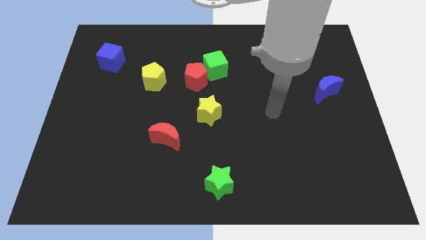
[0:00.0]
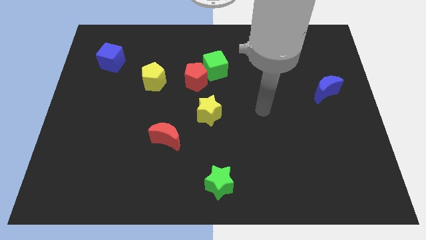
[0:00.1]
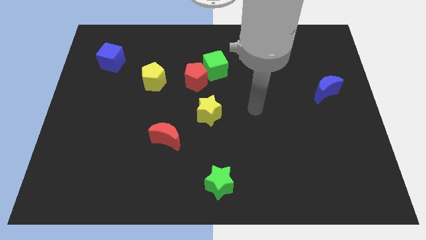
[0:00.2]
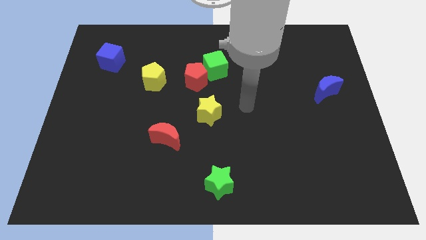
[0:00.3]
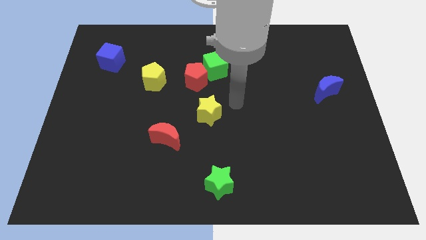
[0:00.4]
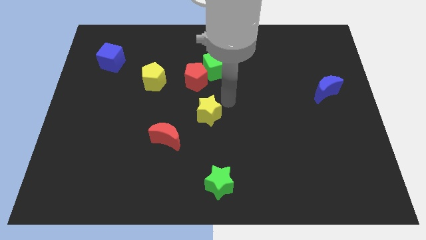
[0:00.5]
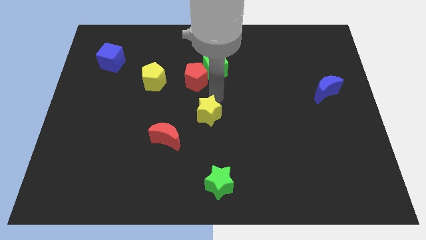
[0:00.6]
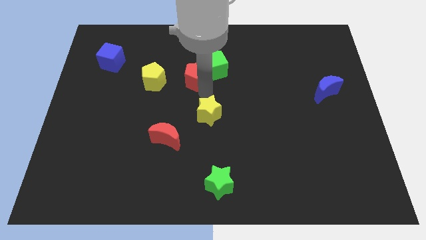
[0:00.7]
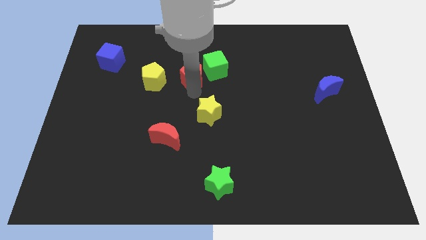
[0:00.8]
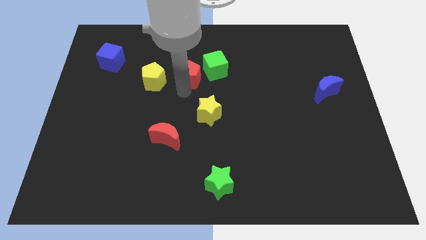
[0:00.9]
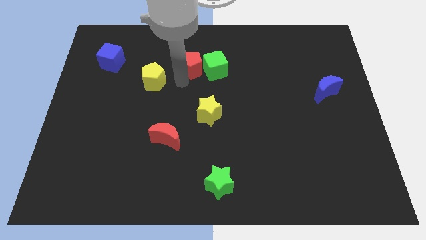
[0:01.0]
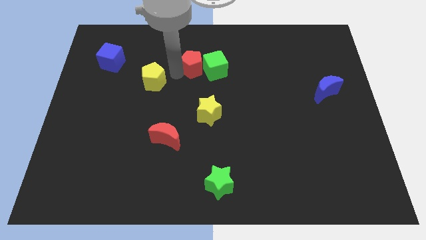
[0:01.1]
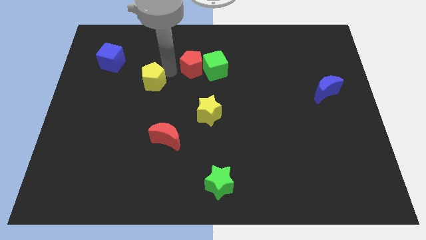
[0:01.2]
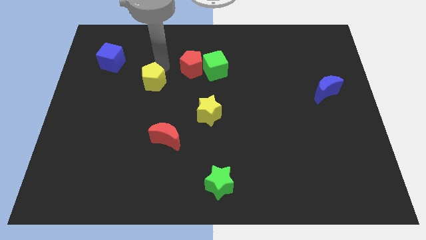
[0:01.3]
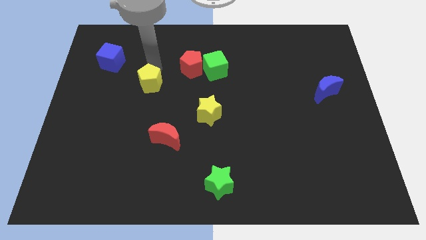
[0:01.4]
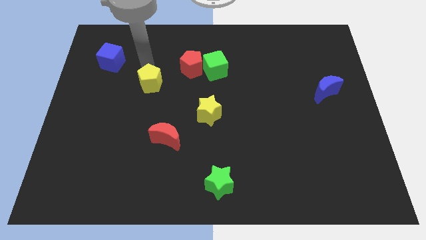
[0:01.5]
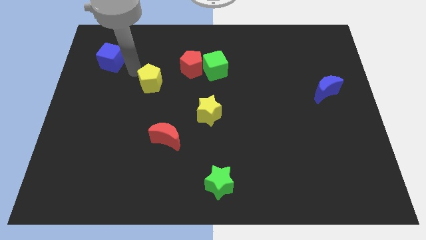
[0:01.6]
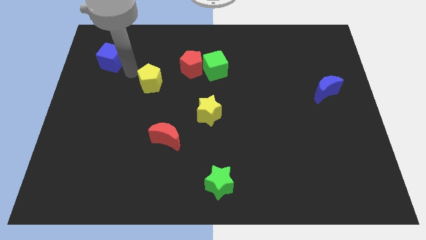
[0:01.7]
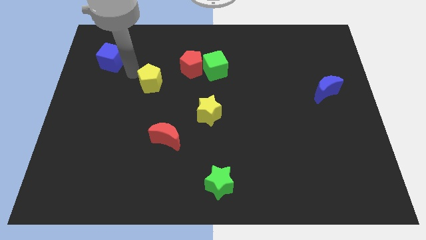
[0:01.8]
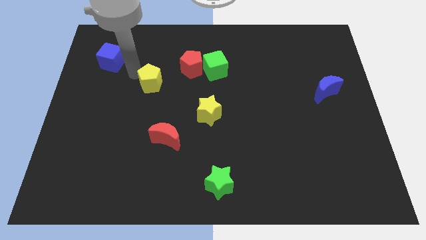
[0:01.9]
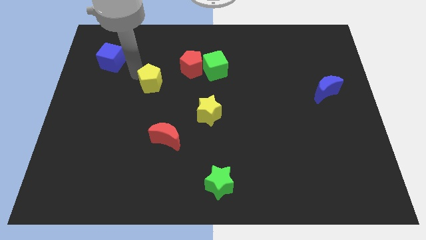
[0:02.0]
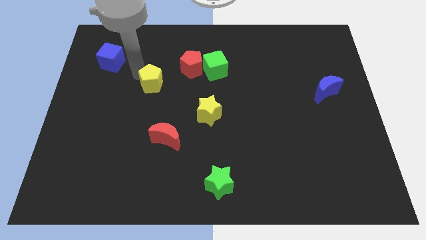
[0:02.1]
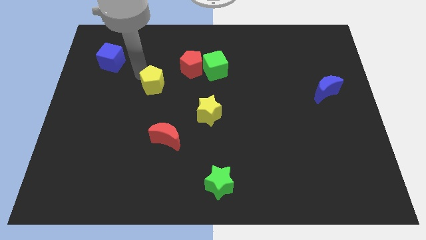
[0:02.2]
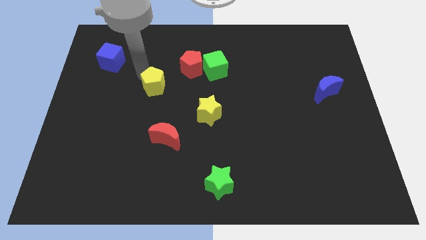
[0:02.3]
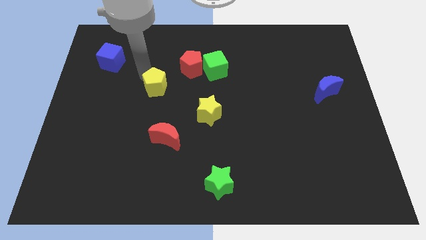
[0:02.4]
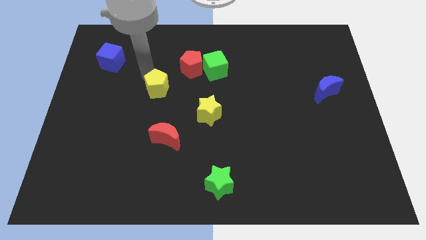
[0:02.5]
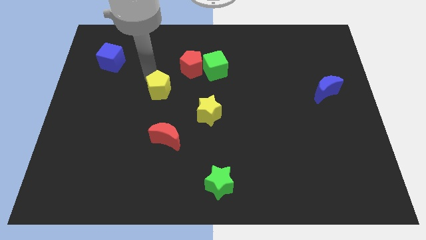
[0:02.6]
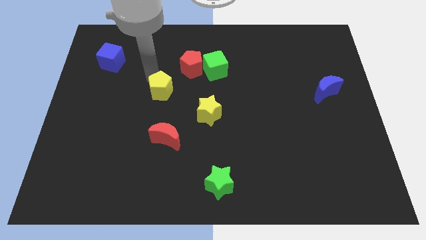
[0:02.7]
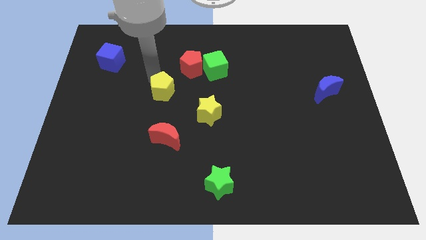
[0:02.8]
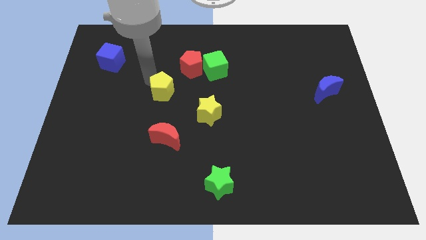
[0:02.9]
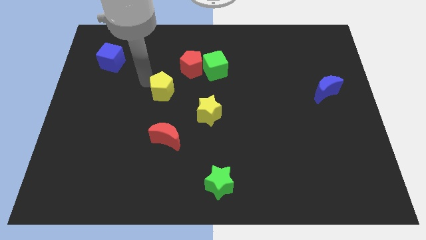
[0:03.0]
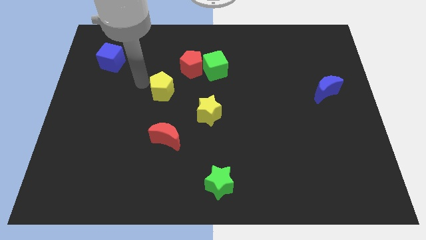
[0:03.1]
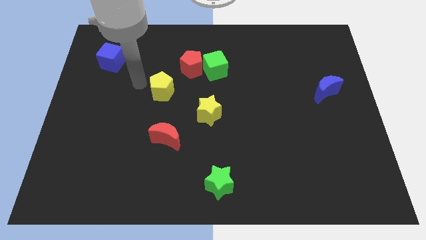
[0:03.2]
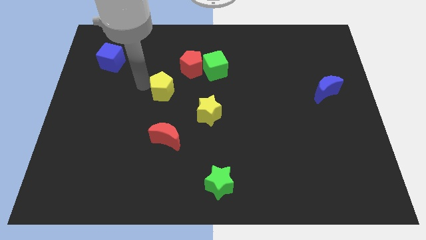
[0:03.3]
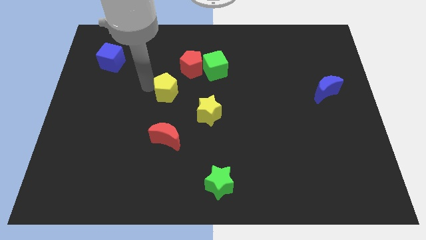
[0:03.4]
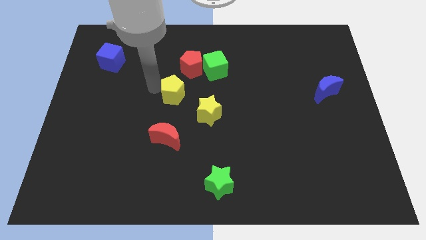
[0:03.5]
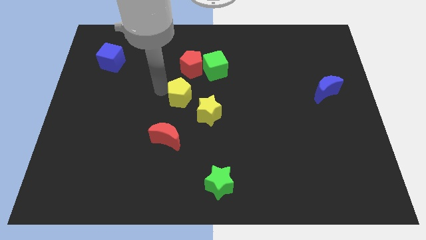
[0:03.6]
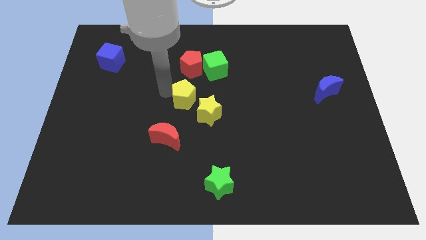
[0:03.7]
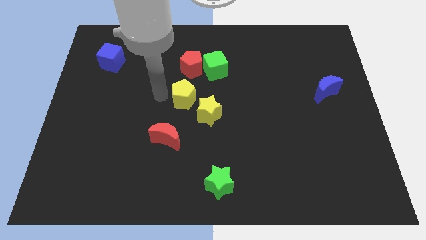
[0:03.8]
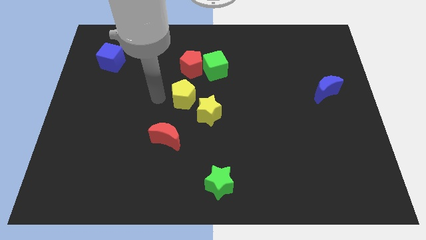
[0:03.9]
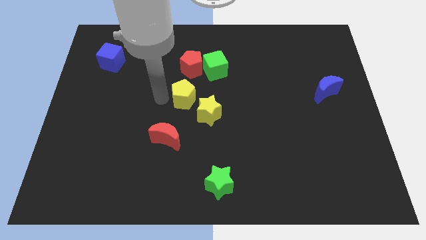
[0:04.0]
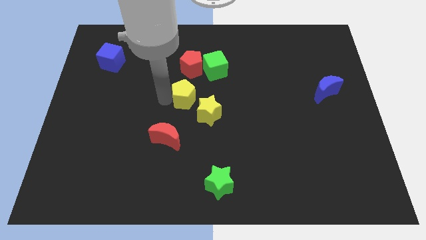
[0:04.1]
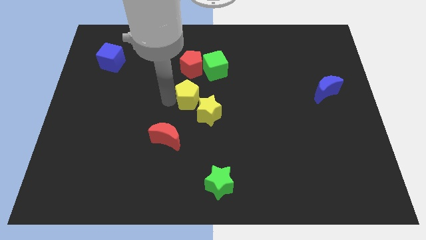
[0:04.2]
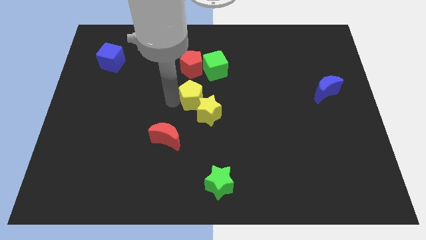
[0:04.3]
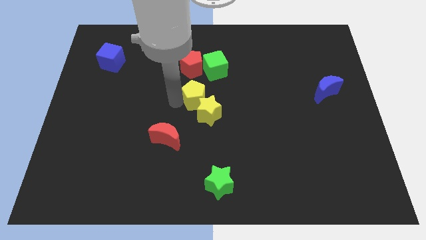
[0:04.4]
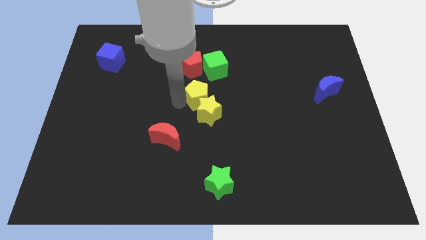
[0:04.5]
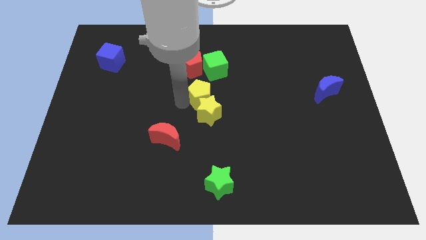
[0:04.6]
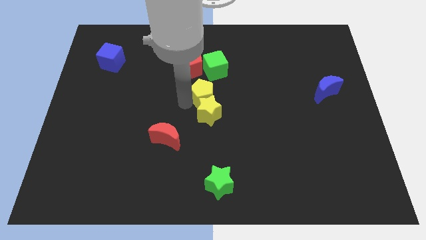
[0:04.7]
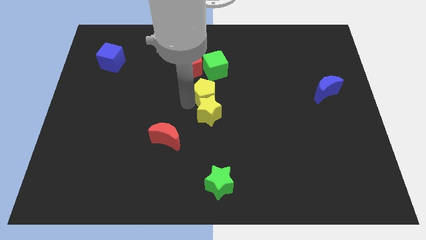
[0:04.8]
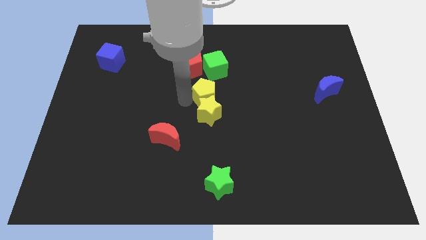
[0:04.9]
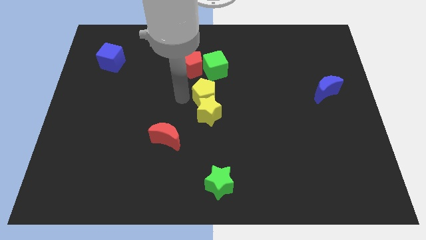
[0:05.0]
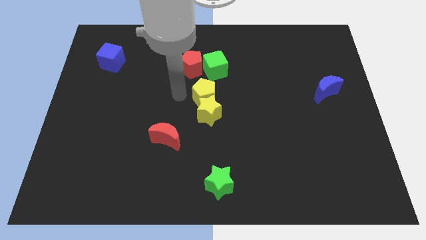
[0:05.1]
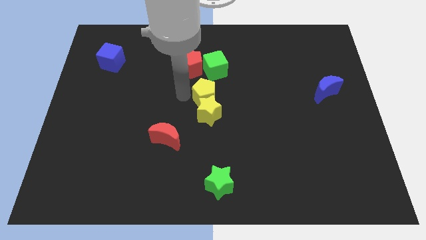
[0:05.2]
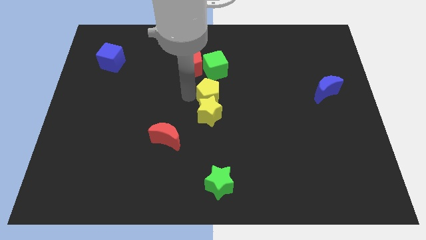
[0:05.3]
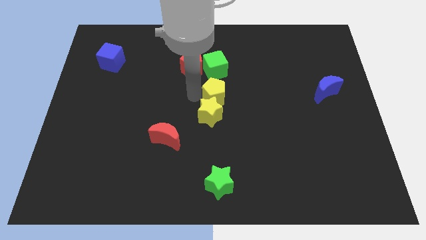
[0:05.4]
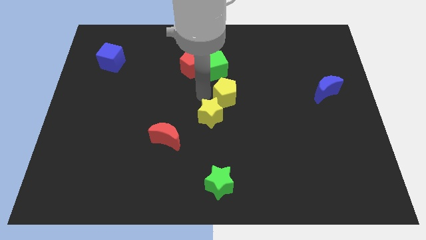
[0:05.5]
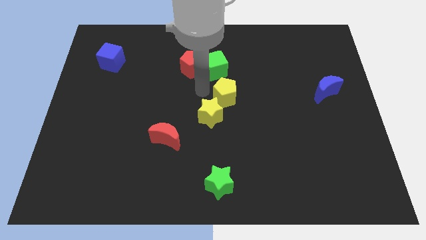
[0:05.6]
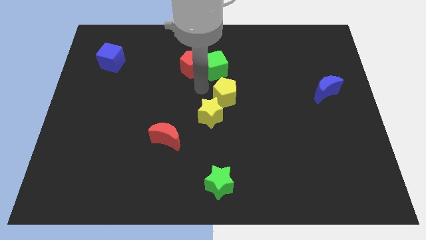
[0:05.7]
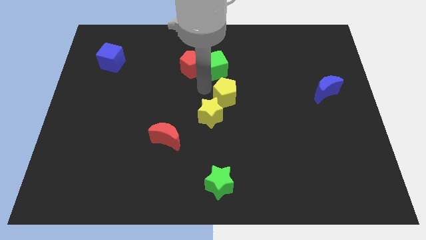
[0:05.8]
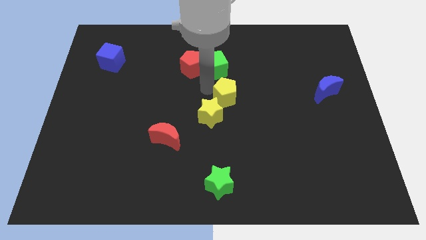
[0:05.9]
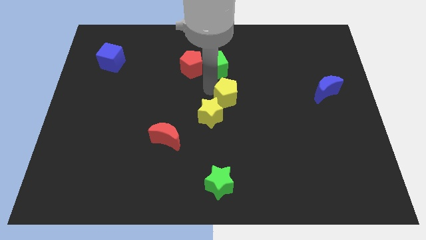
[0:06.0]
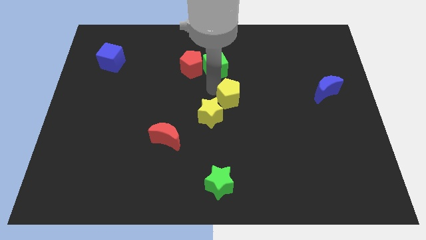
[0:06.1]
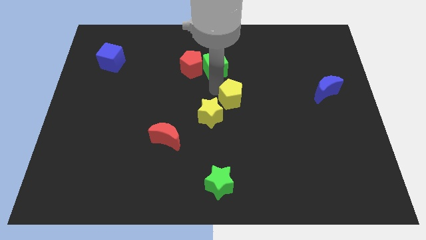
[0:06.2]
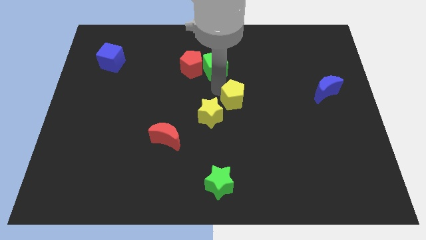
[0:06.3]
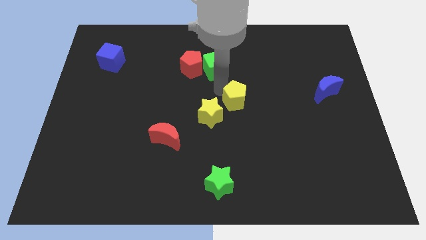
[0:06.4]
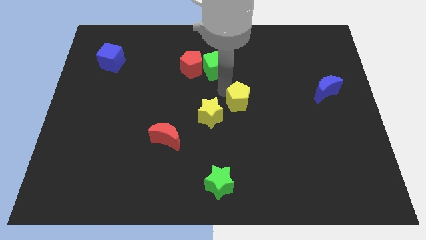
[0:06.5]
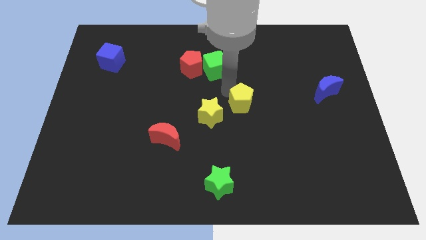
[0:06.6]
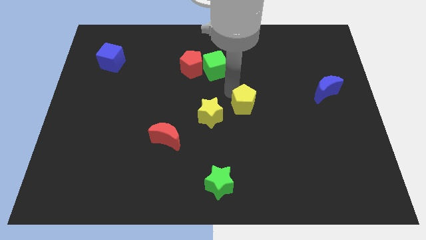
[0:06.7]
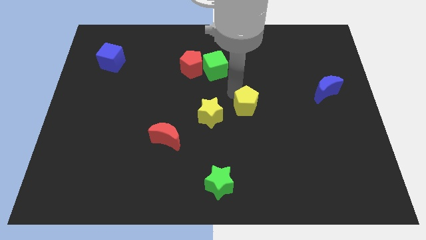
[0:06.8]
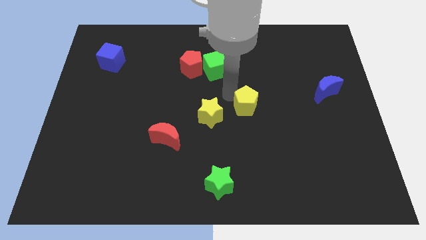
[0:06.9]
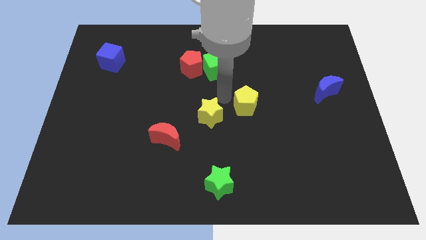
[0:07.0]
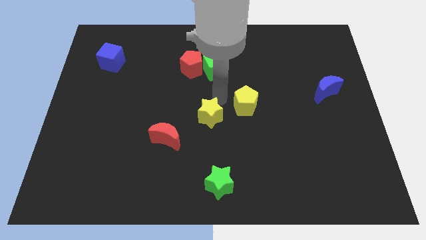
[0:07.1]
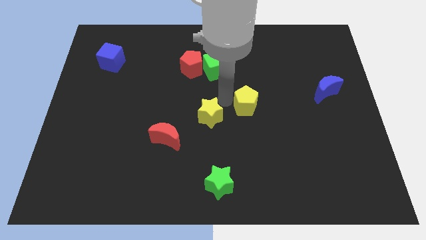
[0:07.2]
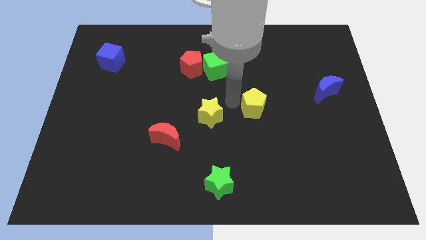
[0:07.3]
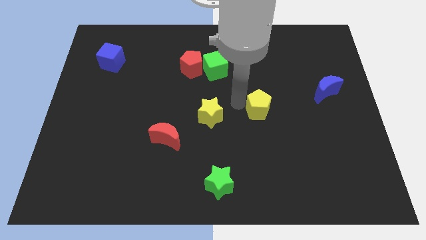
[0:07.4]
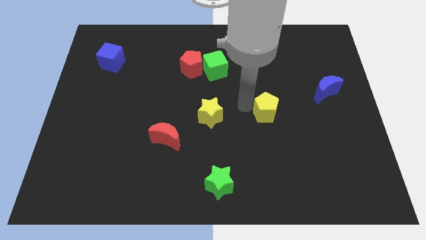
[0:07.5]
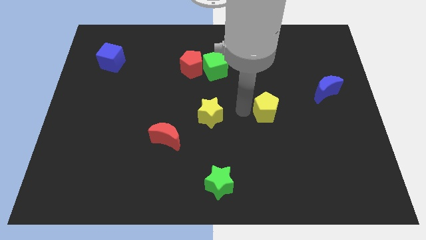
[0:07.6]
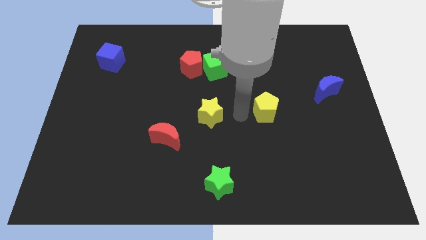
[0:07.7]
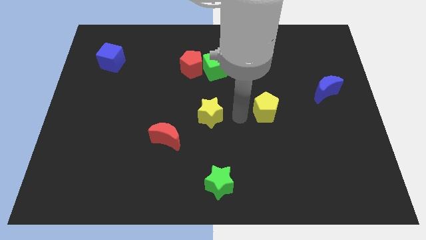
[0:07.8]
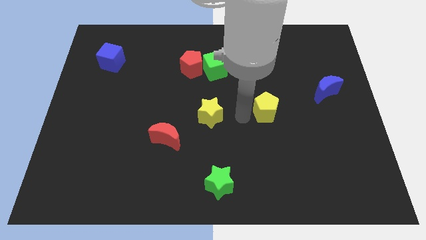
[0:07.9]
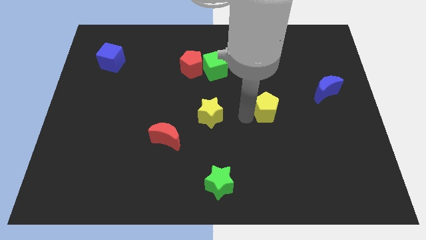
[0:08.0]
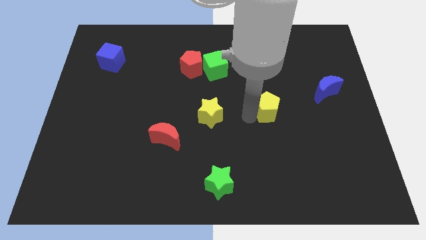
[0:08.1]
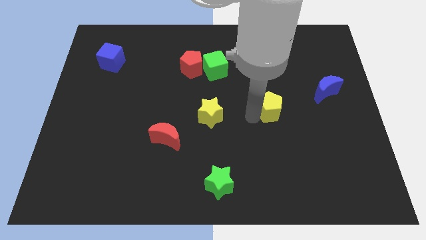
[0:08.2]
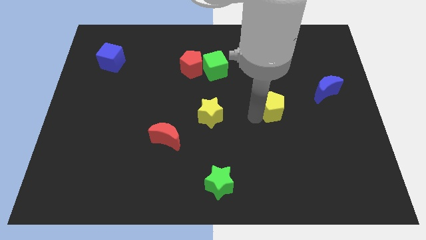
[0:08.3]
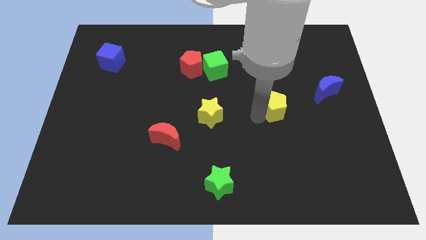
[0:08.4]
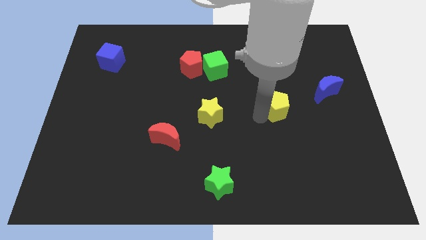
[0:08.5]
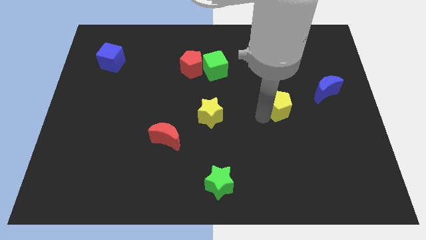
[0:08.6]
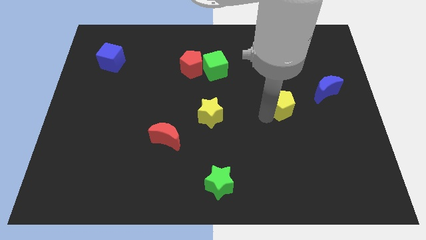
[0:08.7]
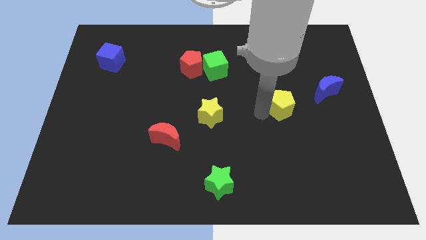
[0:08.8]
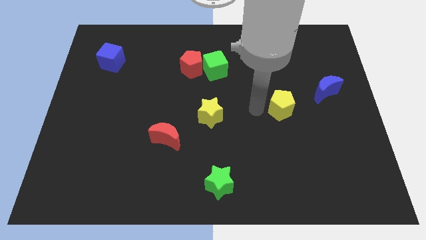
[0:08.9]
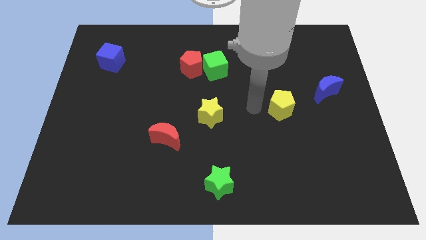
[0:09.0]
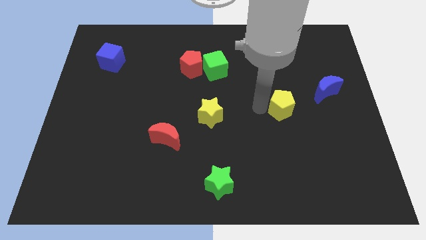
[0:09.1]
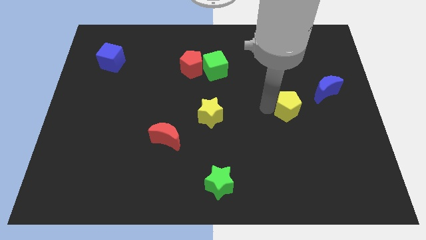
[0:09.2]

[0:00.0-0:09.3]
put the yellow pentagon diagonally down and to the left of the blue moon
